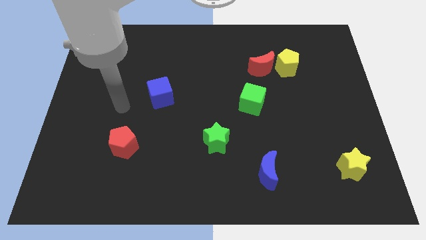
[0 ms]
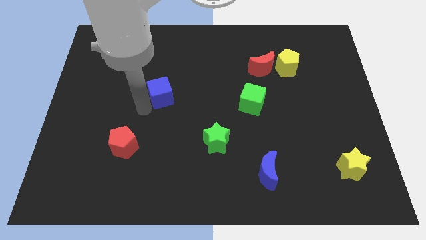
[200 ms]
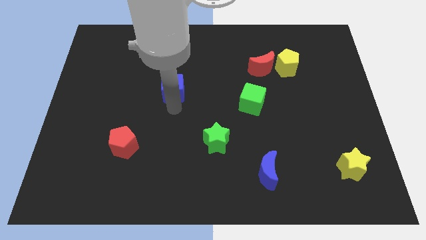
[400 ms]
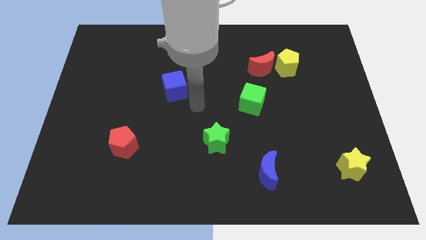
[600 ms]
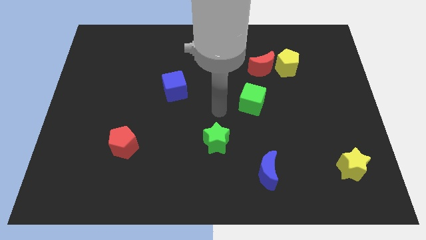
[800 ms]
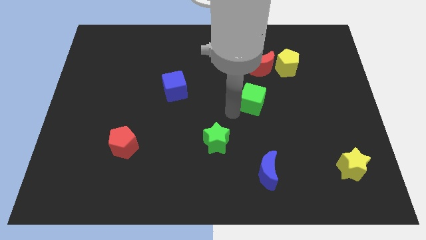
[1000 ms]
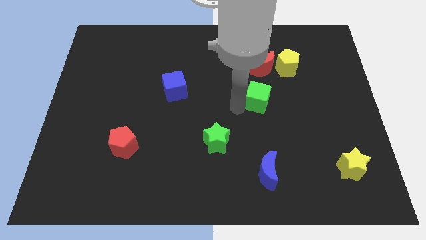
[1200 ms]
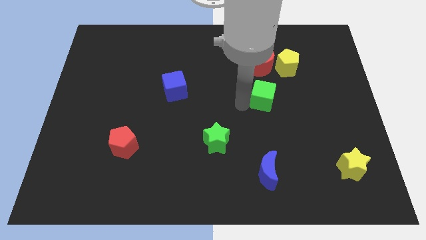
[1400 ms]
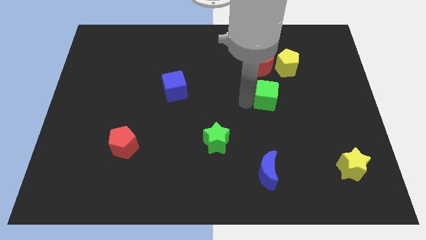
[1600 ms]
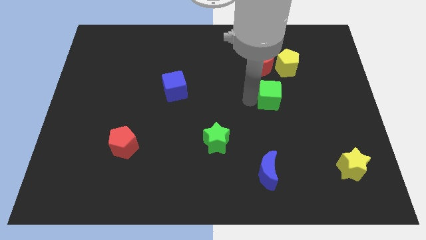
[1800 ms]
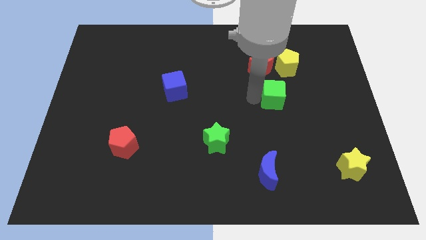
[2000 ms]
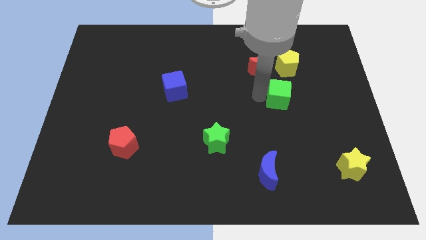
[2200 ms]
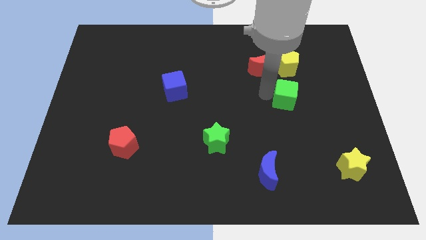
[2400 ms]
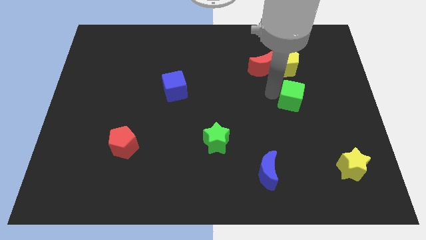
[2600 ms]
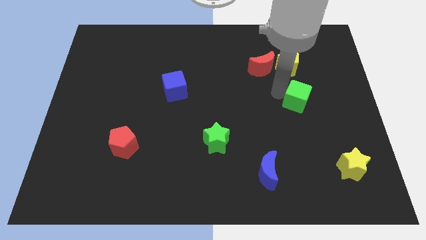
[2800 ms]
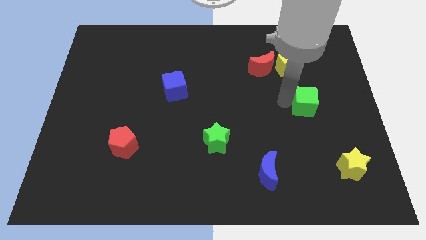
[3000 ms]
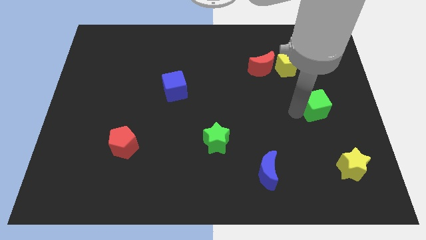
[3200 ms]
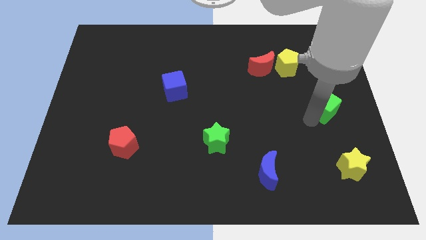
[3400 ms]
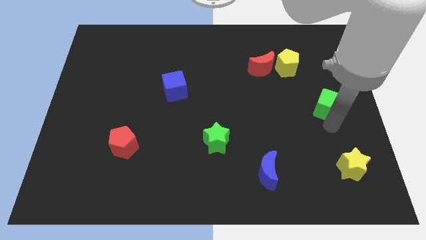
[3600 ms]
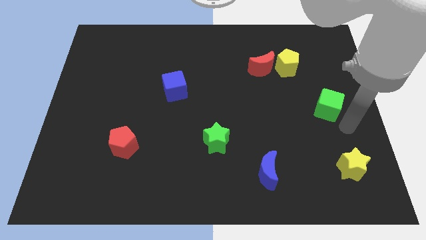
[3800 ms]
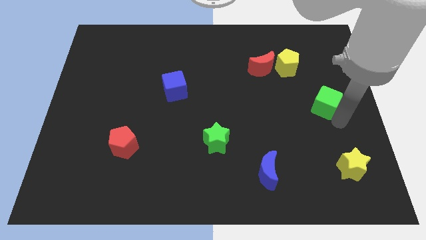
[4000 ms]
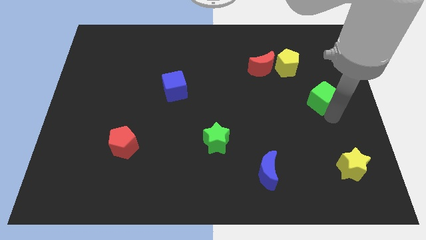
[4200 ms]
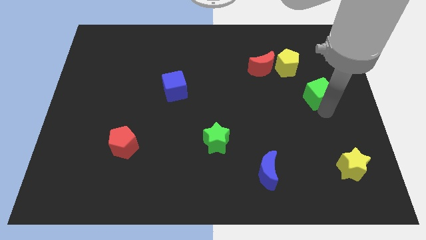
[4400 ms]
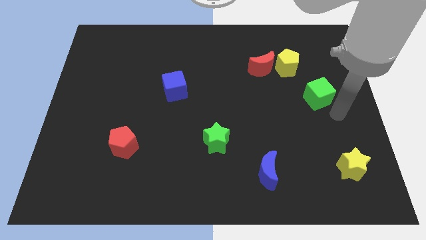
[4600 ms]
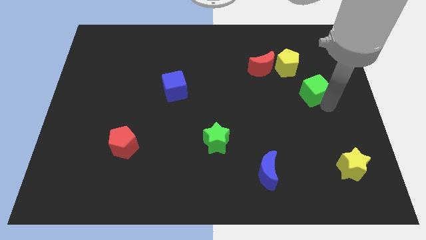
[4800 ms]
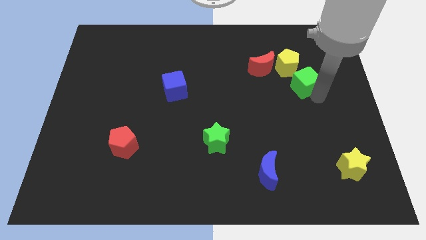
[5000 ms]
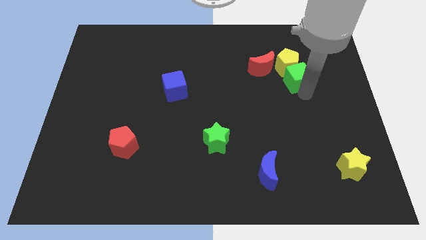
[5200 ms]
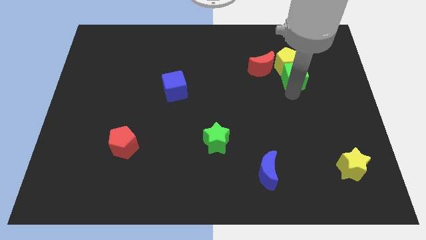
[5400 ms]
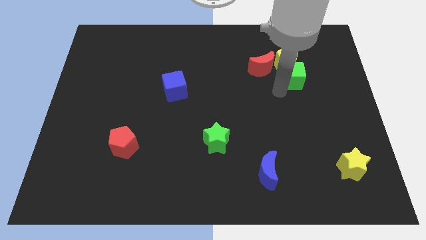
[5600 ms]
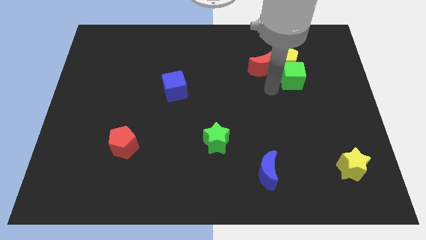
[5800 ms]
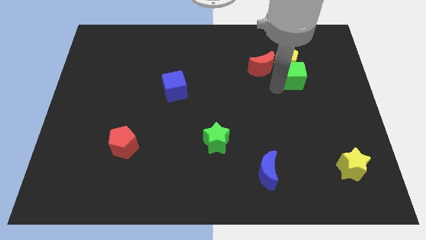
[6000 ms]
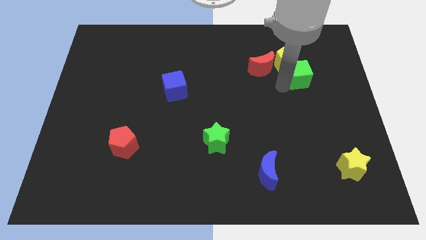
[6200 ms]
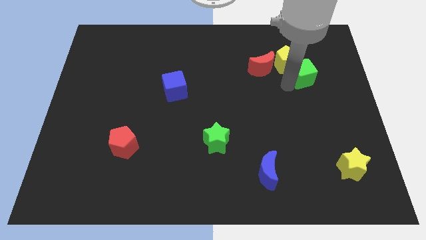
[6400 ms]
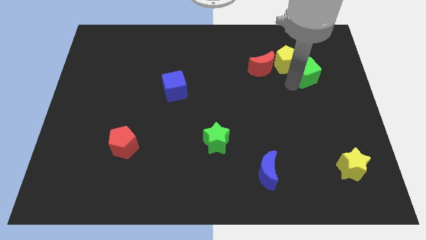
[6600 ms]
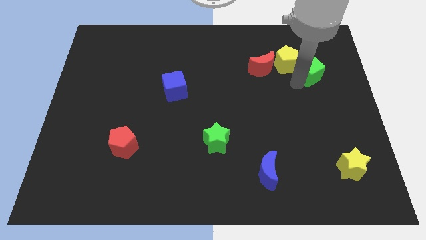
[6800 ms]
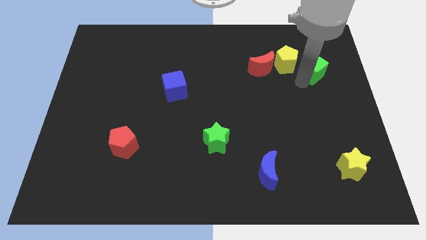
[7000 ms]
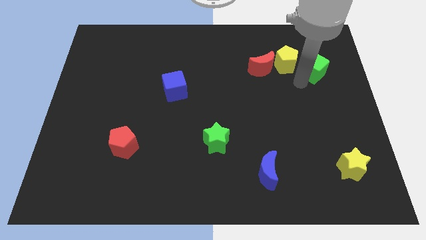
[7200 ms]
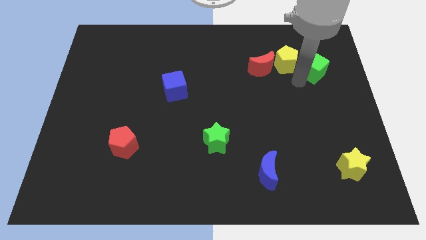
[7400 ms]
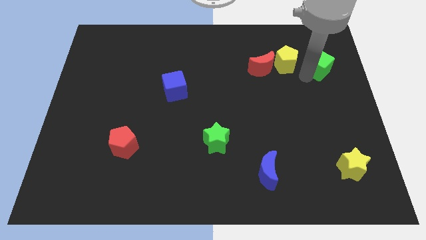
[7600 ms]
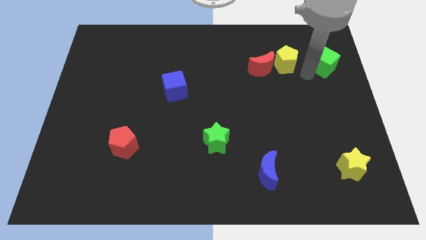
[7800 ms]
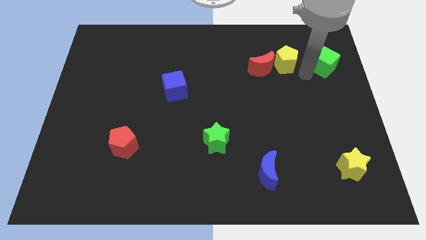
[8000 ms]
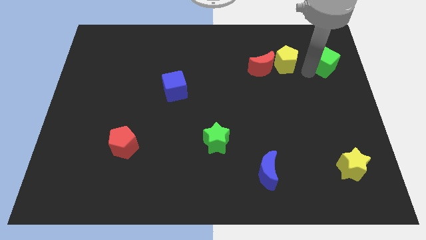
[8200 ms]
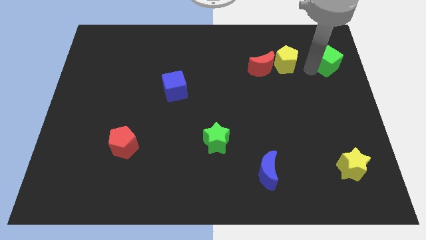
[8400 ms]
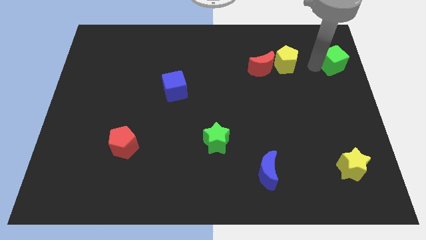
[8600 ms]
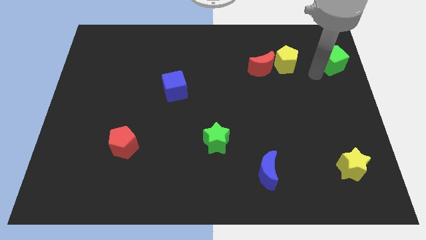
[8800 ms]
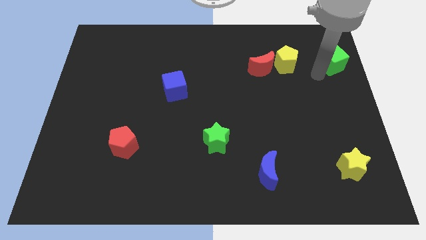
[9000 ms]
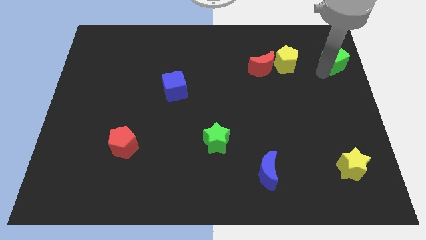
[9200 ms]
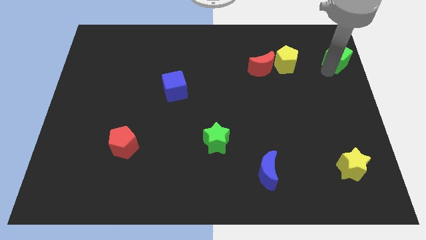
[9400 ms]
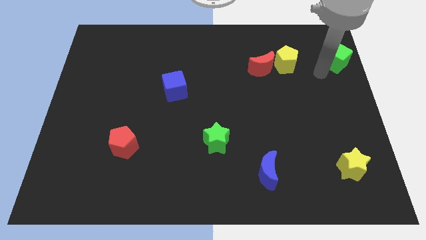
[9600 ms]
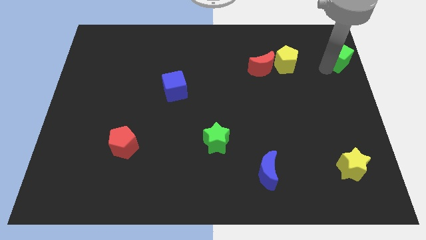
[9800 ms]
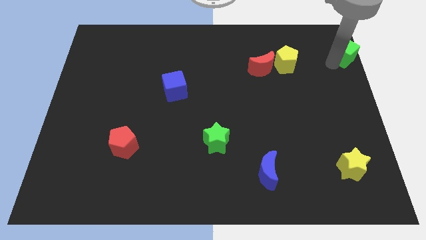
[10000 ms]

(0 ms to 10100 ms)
move the green cube to the top right

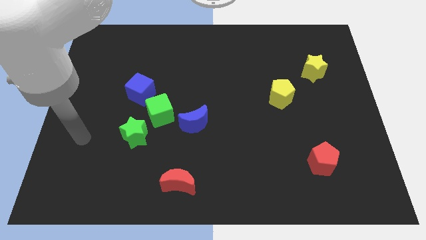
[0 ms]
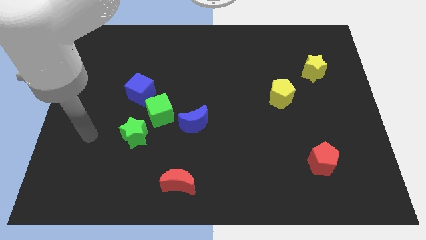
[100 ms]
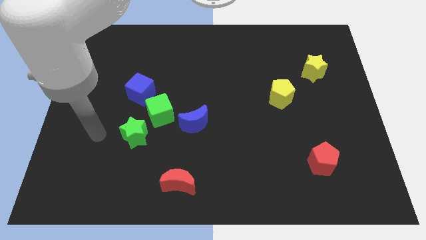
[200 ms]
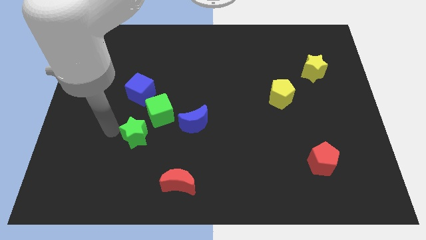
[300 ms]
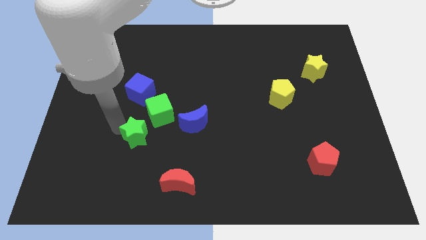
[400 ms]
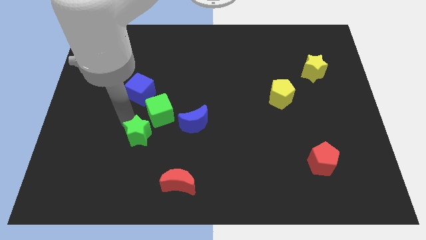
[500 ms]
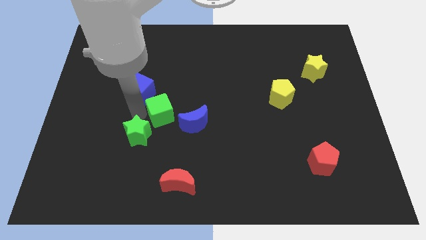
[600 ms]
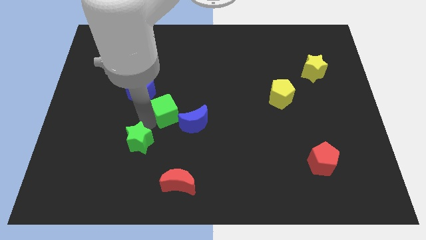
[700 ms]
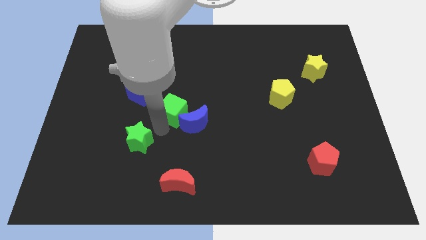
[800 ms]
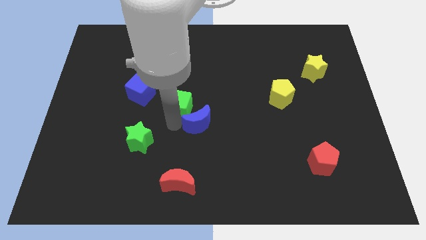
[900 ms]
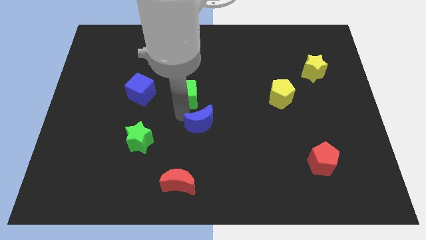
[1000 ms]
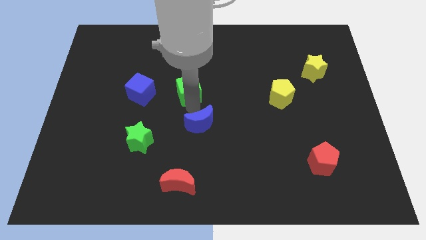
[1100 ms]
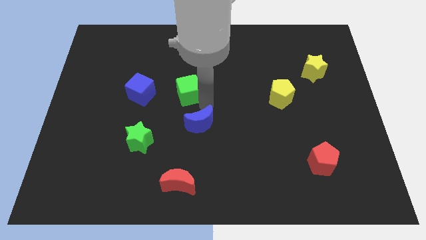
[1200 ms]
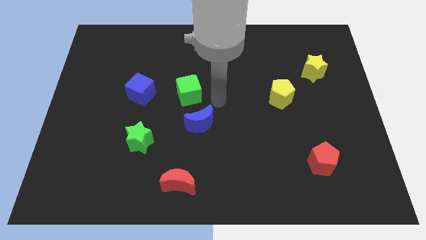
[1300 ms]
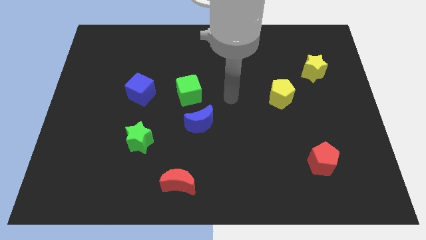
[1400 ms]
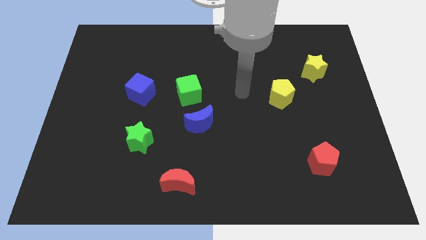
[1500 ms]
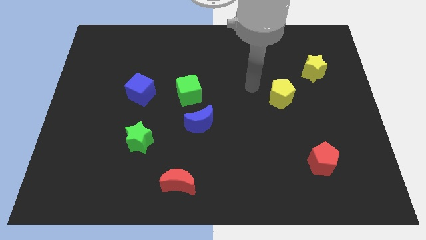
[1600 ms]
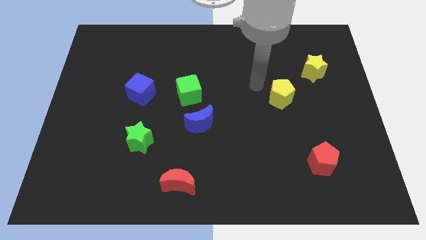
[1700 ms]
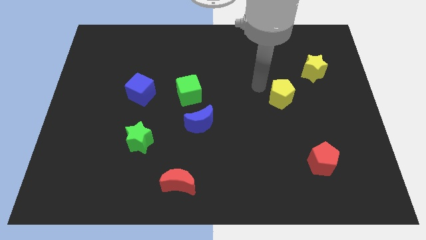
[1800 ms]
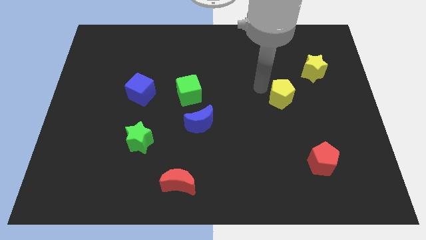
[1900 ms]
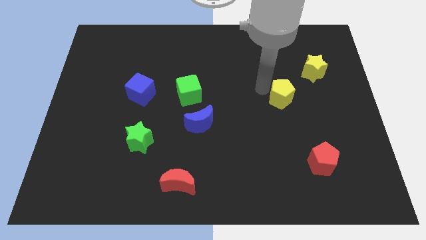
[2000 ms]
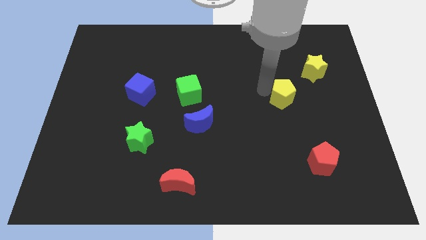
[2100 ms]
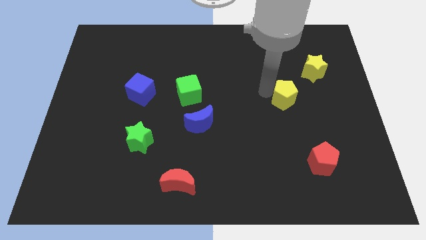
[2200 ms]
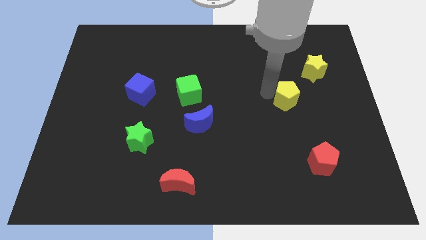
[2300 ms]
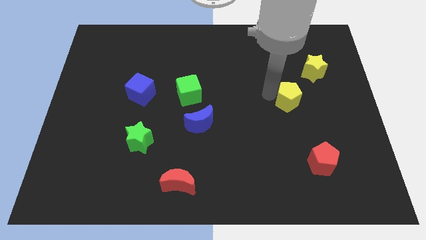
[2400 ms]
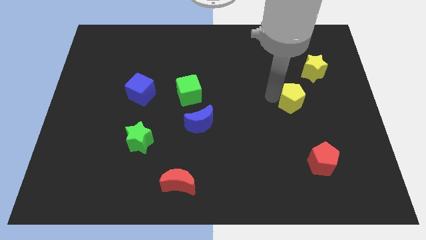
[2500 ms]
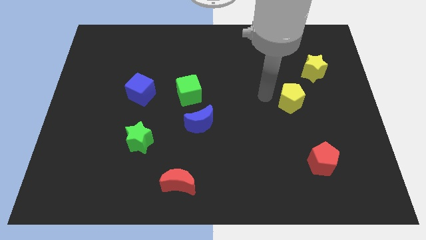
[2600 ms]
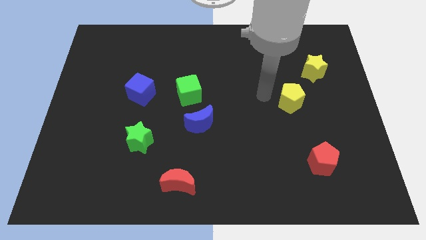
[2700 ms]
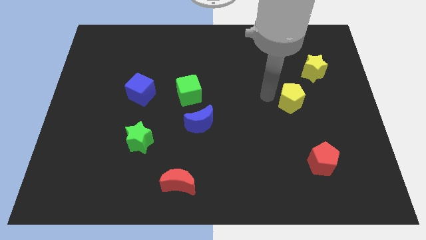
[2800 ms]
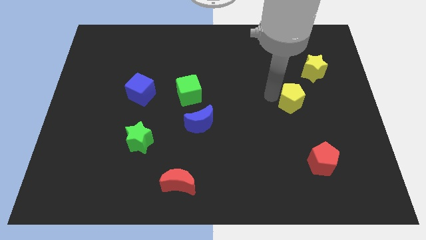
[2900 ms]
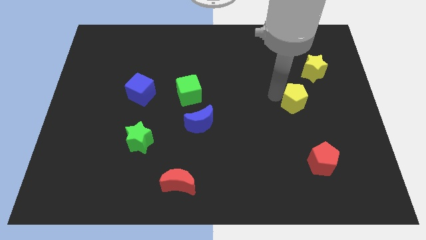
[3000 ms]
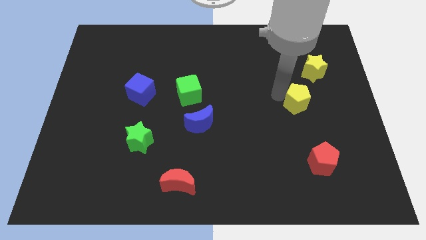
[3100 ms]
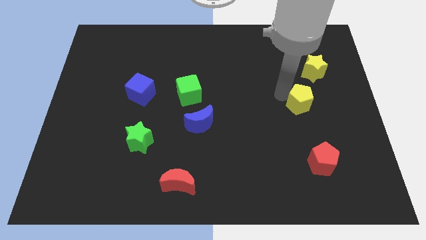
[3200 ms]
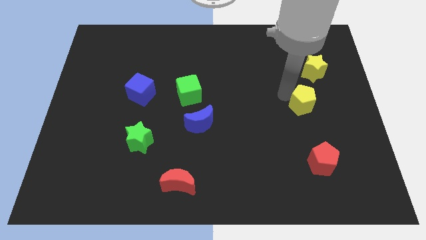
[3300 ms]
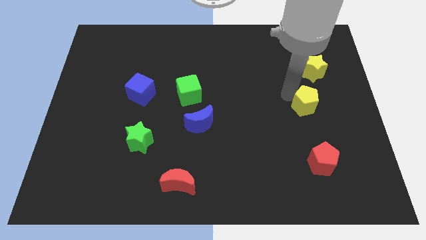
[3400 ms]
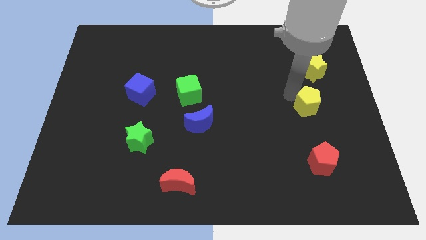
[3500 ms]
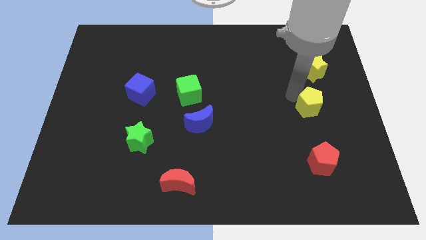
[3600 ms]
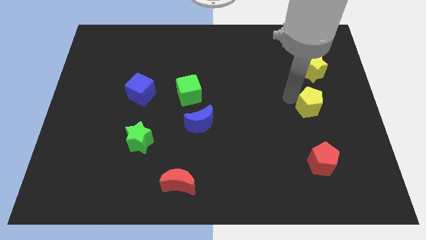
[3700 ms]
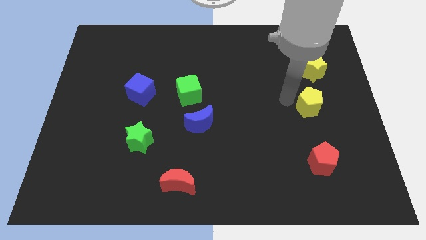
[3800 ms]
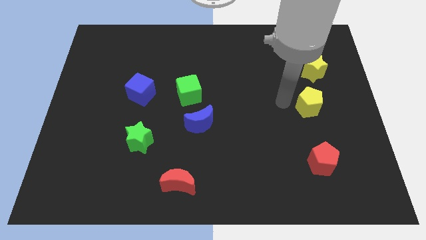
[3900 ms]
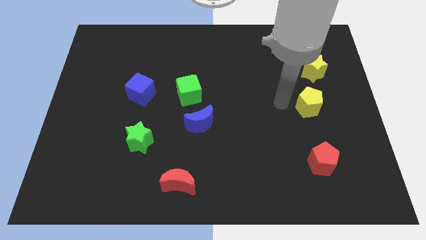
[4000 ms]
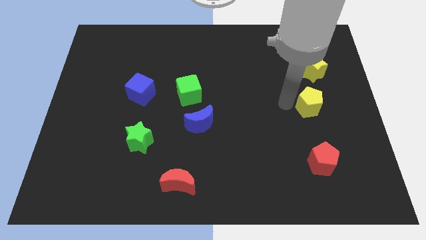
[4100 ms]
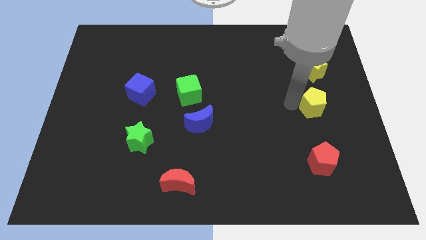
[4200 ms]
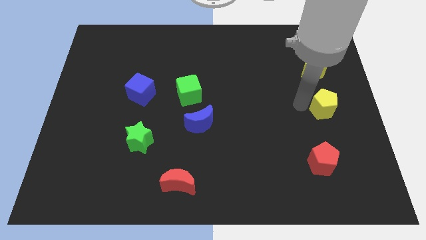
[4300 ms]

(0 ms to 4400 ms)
slide the yellow pentagon to the right side
